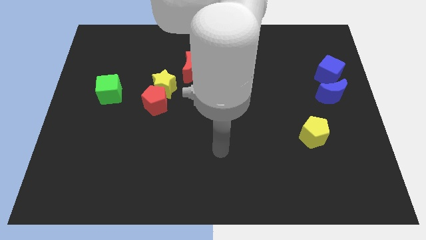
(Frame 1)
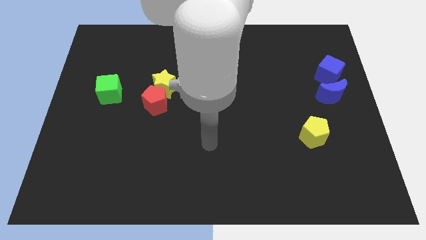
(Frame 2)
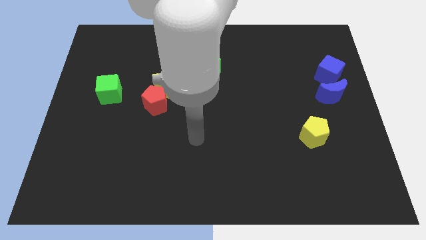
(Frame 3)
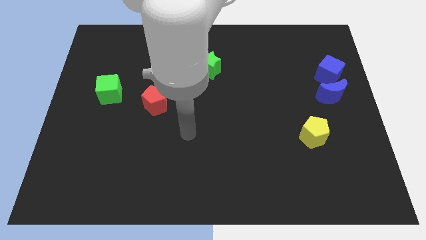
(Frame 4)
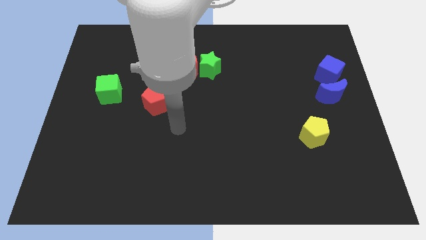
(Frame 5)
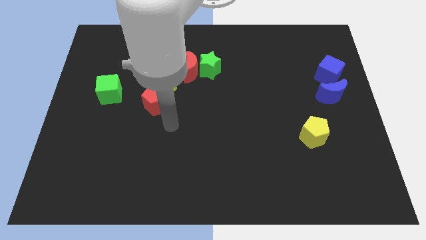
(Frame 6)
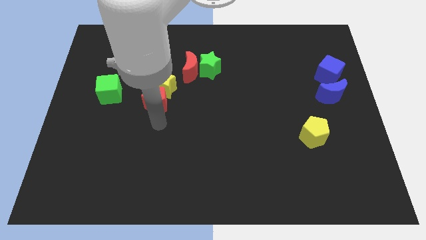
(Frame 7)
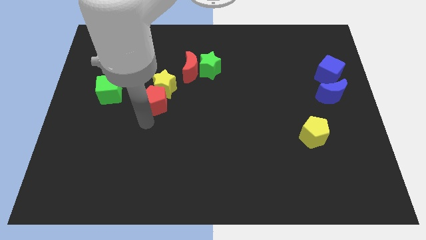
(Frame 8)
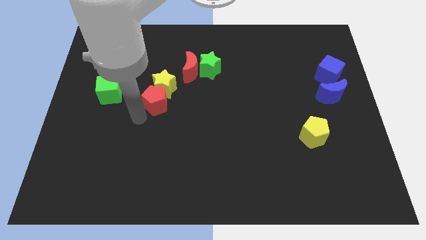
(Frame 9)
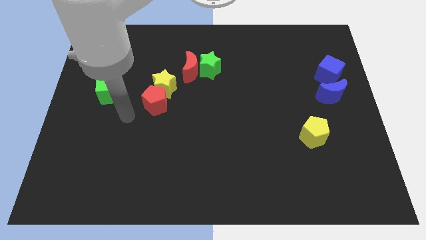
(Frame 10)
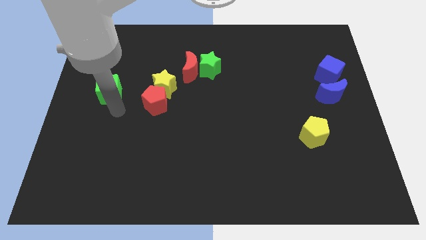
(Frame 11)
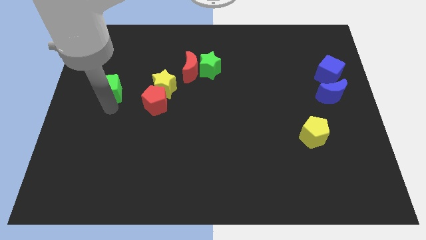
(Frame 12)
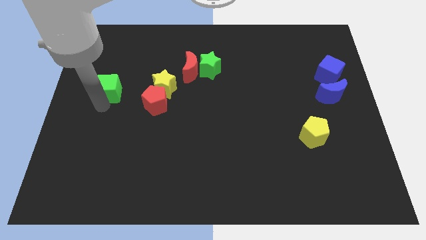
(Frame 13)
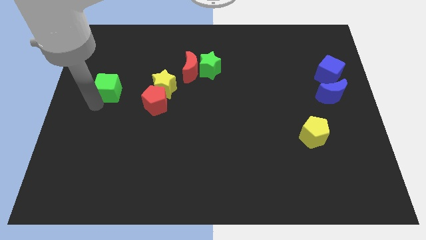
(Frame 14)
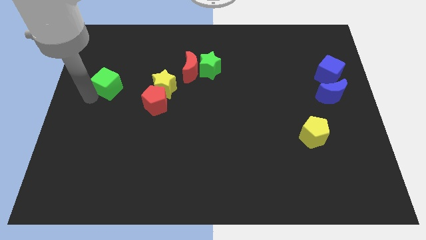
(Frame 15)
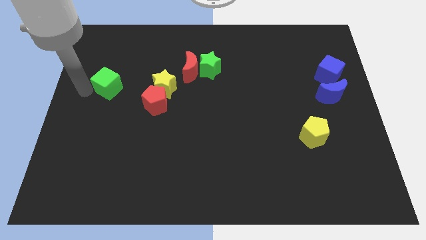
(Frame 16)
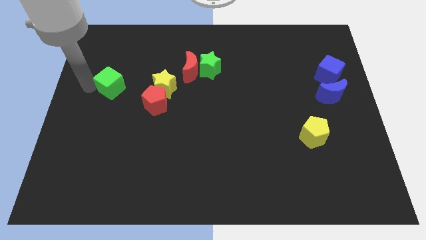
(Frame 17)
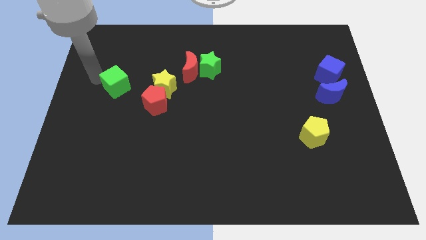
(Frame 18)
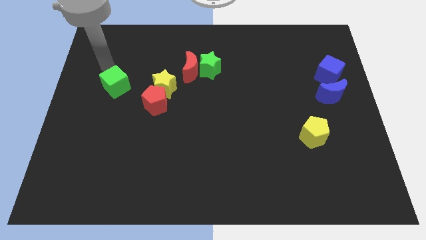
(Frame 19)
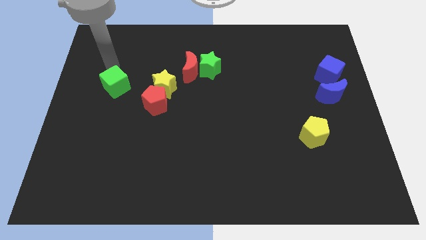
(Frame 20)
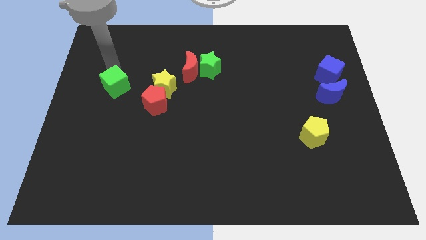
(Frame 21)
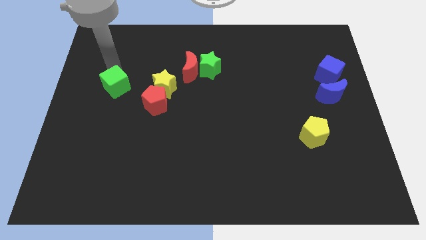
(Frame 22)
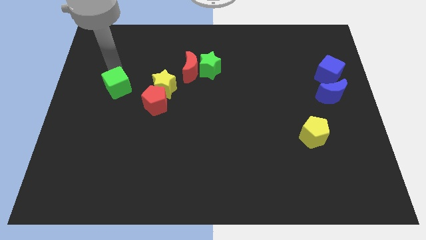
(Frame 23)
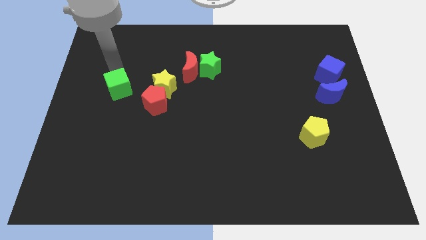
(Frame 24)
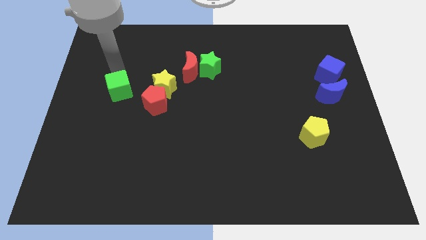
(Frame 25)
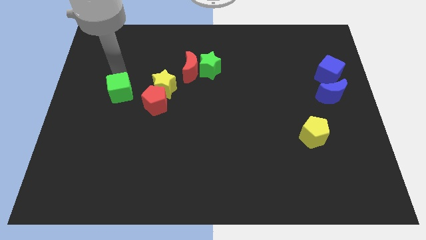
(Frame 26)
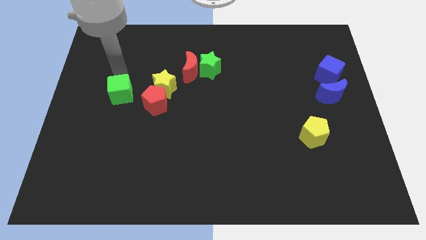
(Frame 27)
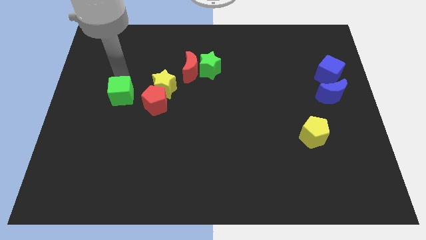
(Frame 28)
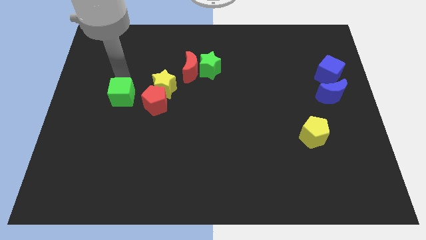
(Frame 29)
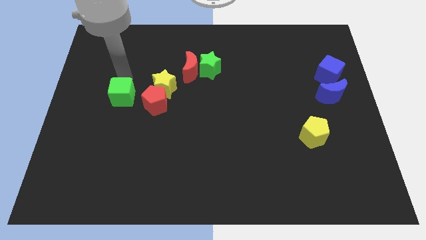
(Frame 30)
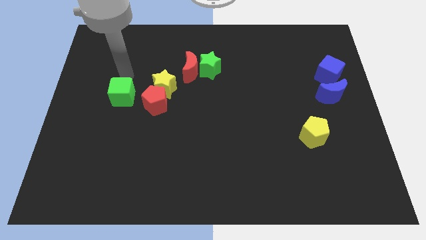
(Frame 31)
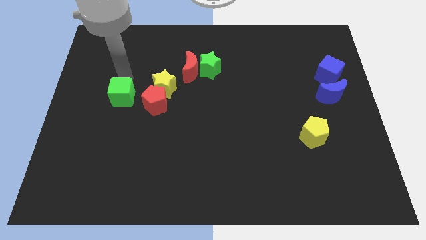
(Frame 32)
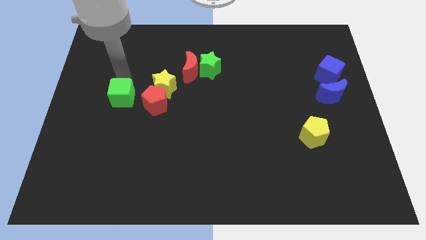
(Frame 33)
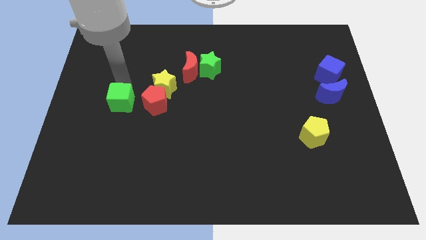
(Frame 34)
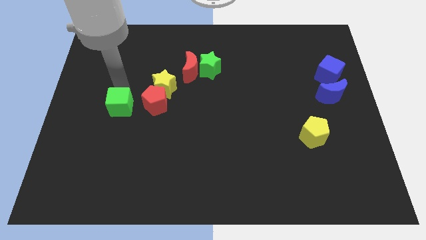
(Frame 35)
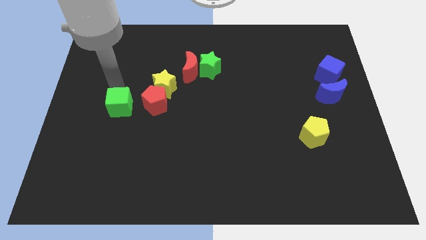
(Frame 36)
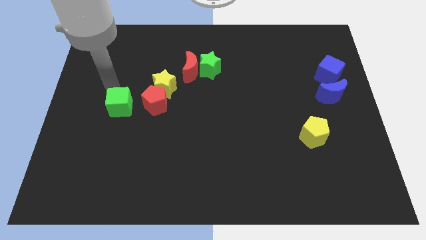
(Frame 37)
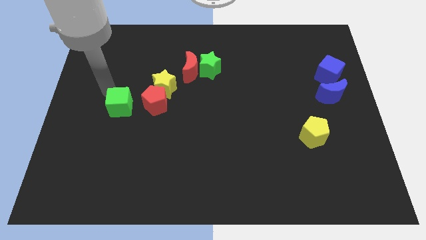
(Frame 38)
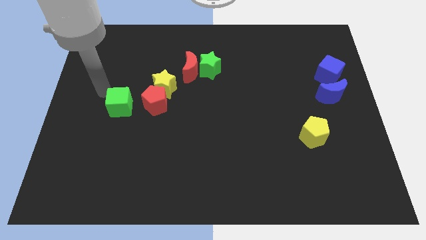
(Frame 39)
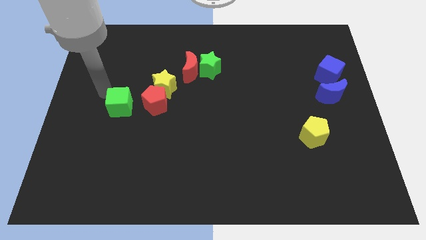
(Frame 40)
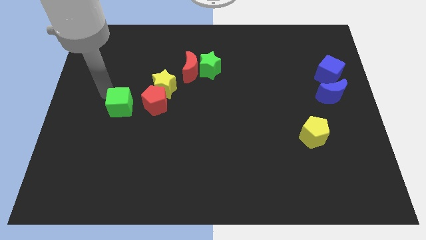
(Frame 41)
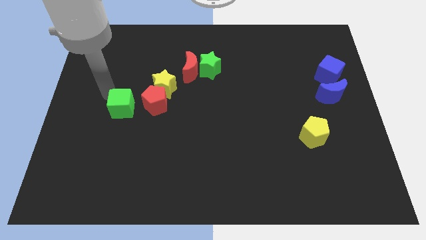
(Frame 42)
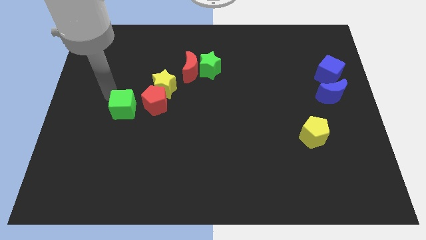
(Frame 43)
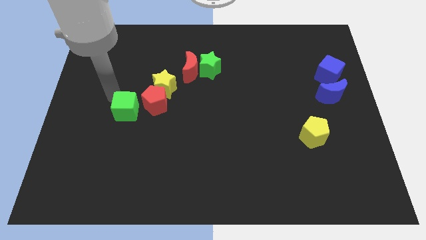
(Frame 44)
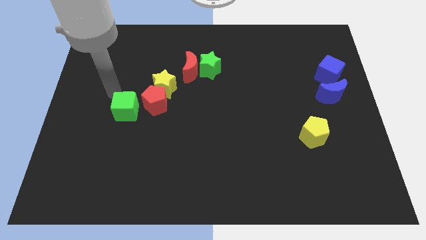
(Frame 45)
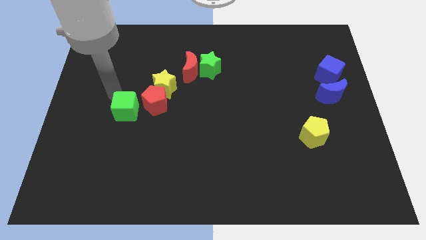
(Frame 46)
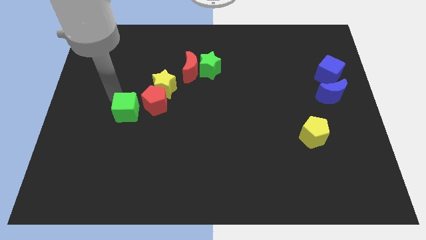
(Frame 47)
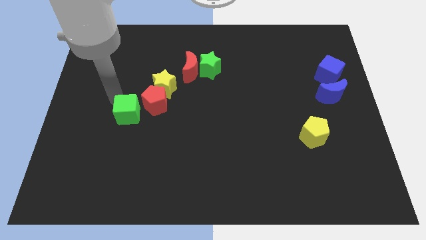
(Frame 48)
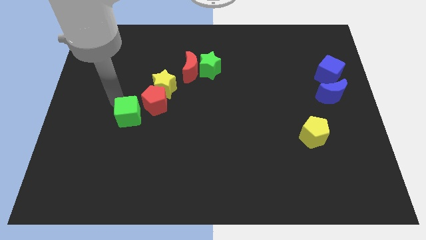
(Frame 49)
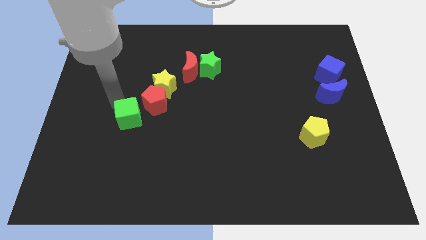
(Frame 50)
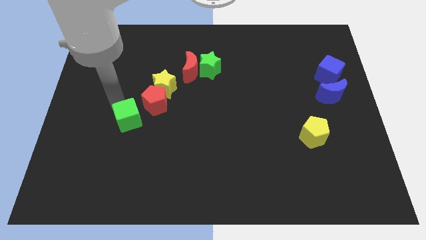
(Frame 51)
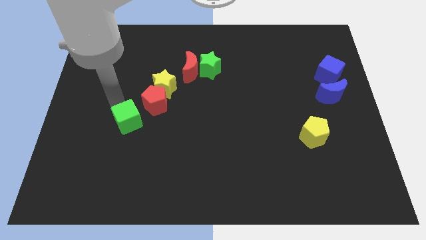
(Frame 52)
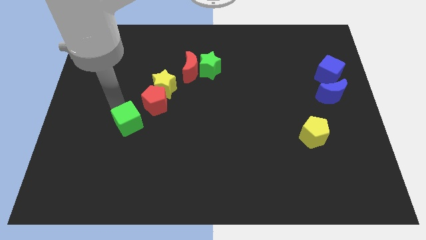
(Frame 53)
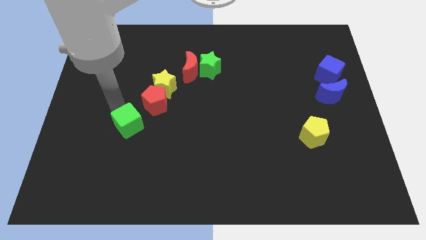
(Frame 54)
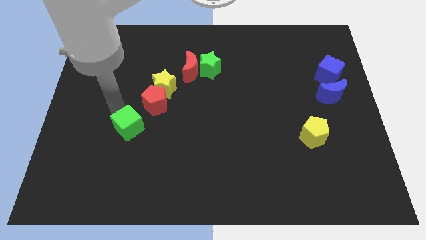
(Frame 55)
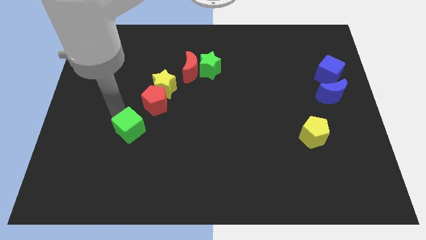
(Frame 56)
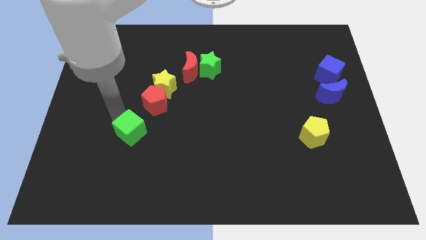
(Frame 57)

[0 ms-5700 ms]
put the green cube to the bottom of the red pentagon

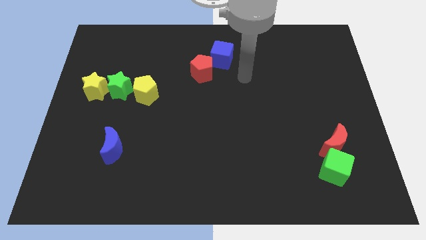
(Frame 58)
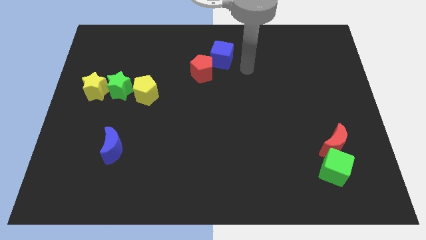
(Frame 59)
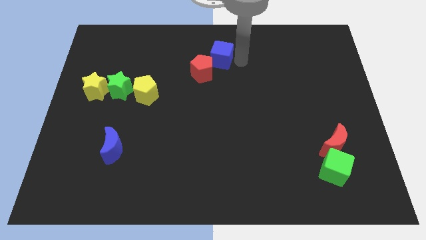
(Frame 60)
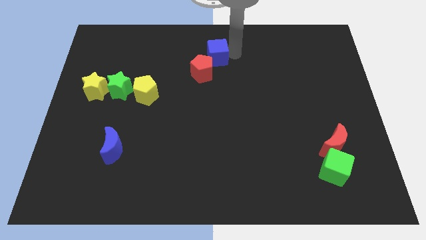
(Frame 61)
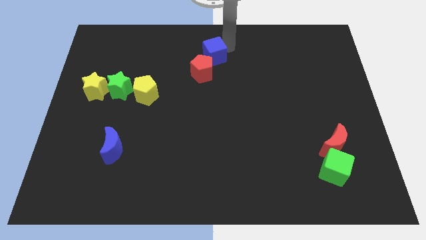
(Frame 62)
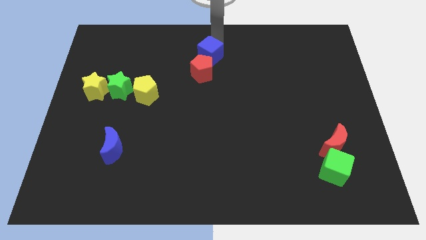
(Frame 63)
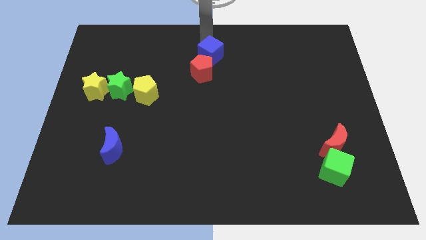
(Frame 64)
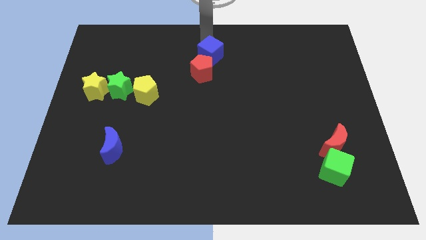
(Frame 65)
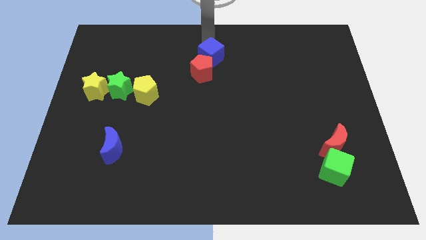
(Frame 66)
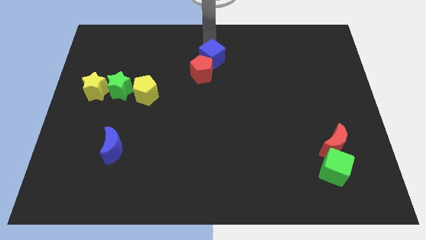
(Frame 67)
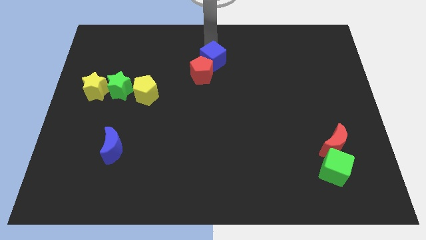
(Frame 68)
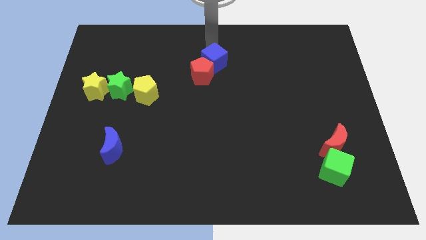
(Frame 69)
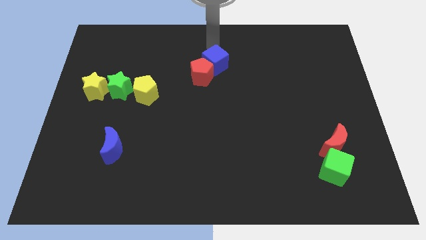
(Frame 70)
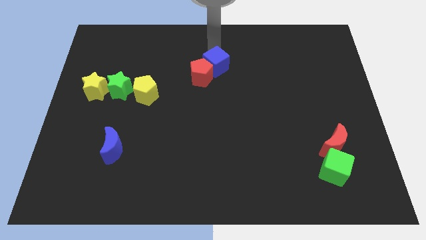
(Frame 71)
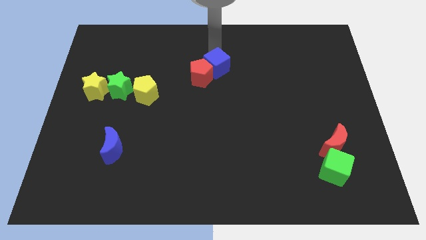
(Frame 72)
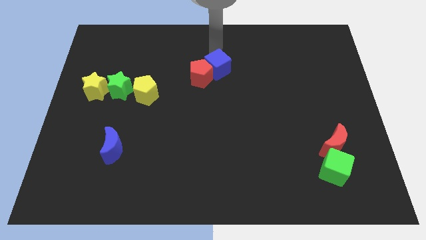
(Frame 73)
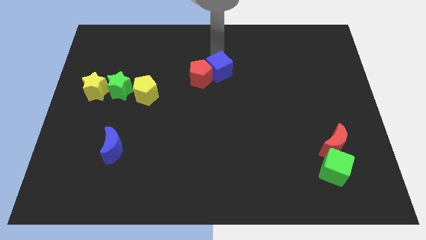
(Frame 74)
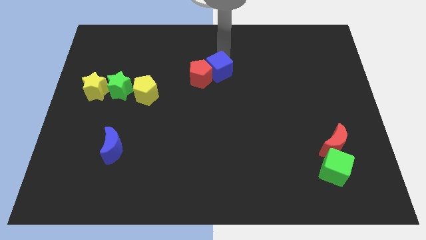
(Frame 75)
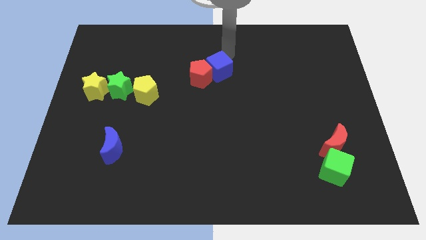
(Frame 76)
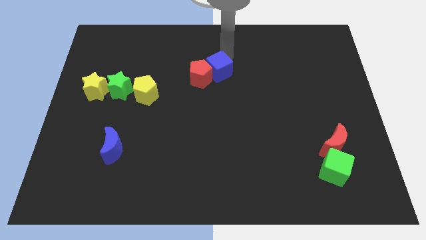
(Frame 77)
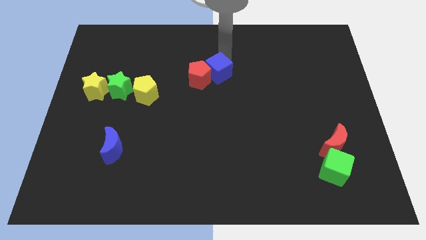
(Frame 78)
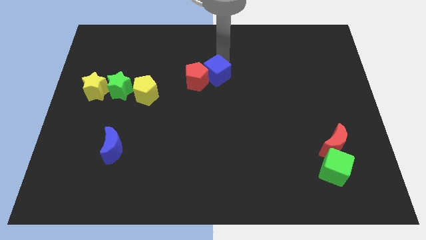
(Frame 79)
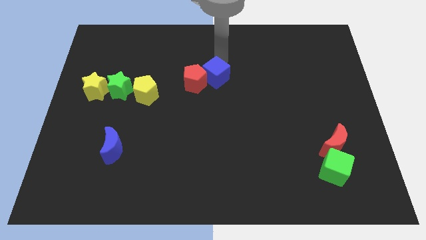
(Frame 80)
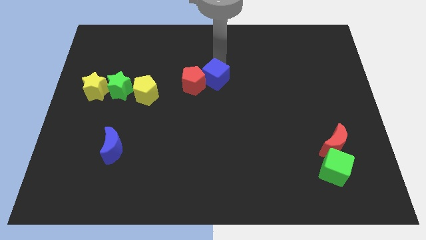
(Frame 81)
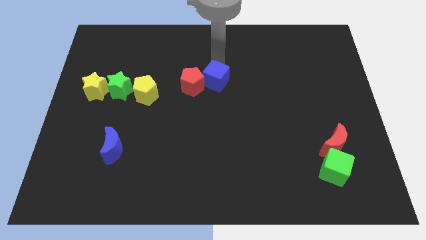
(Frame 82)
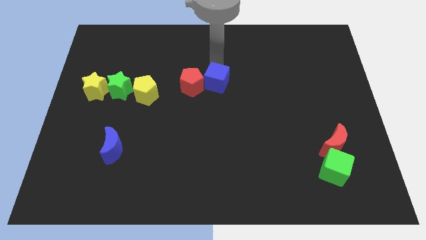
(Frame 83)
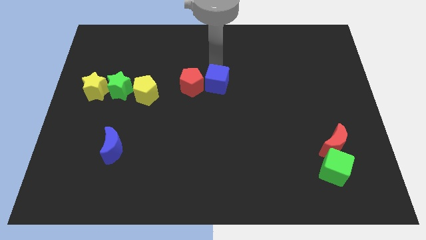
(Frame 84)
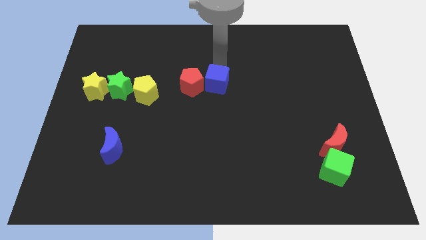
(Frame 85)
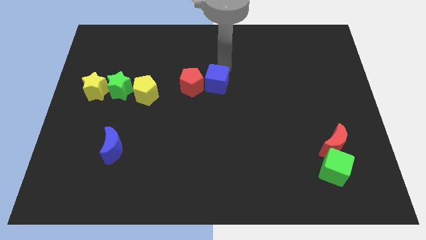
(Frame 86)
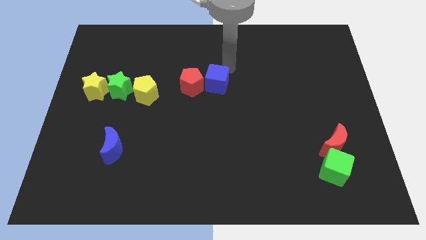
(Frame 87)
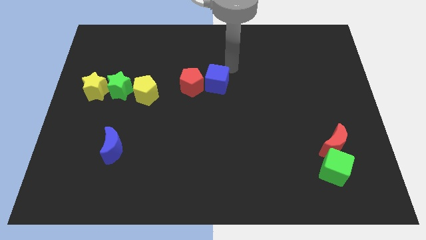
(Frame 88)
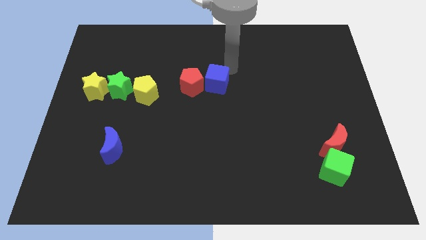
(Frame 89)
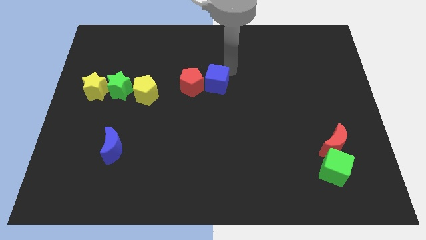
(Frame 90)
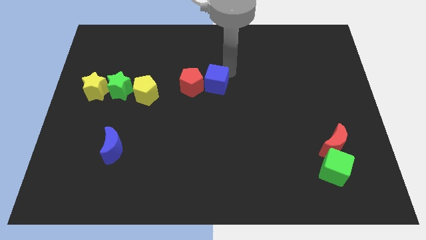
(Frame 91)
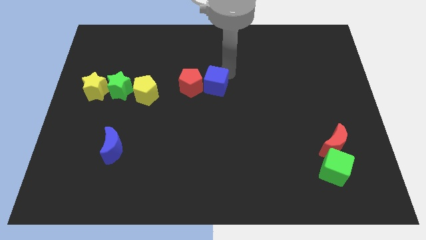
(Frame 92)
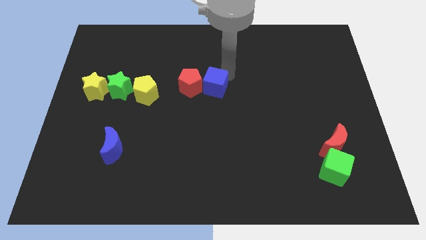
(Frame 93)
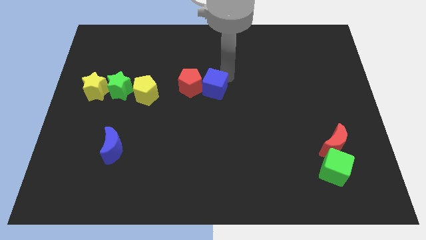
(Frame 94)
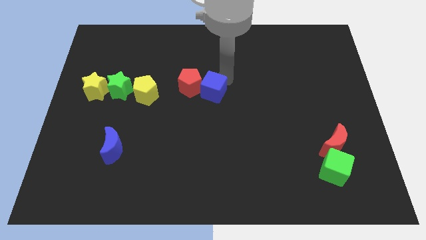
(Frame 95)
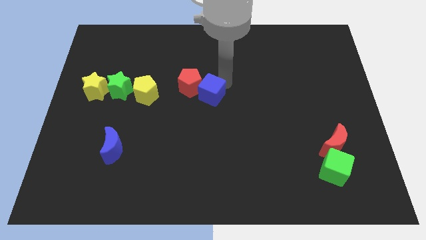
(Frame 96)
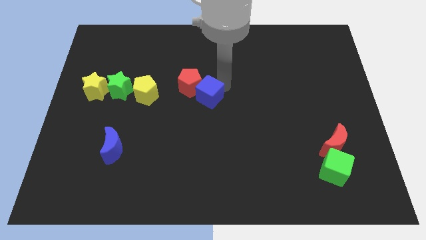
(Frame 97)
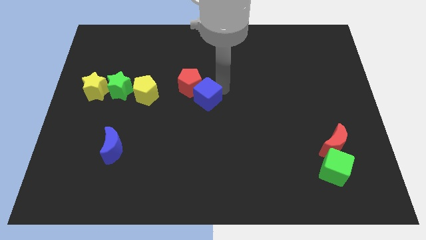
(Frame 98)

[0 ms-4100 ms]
put the blue cube to the bottom side of the red pentagon
